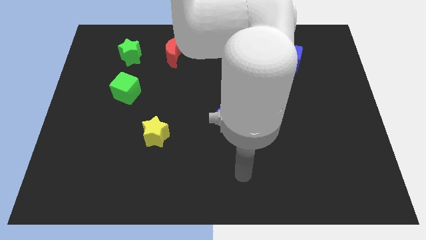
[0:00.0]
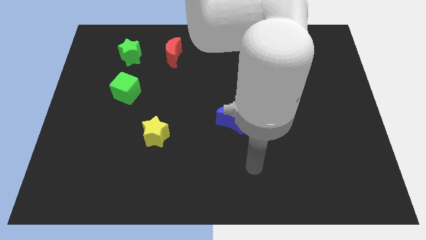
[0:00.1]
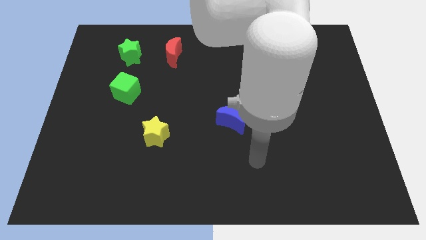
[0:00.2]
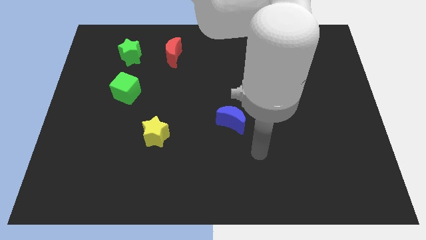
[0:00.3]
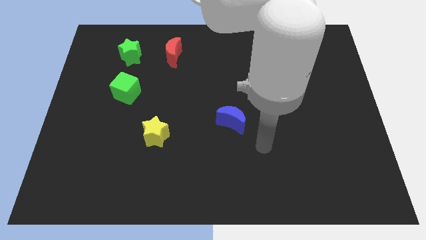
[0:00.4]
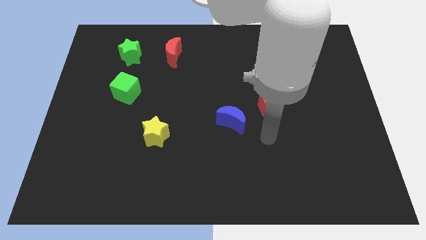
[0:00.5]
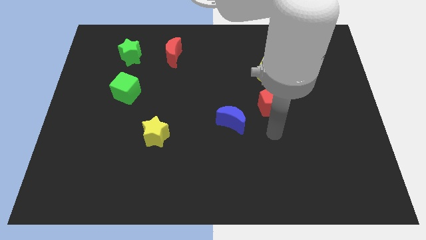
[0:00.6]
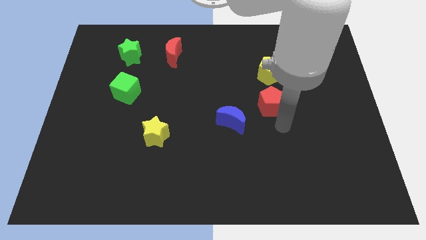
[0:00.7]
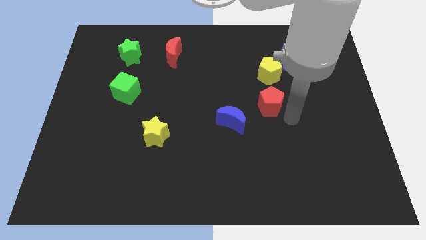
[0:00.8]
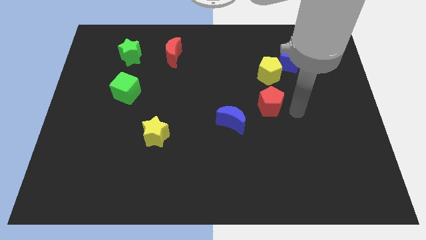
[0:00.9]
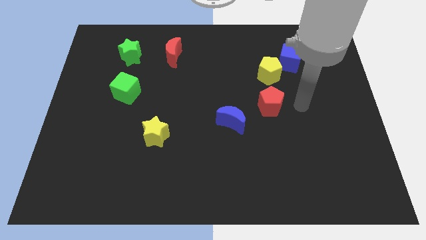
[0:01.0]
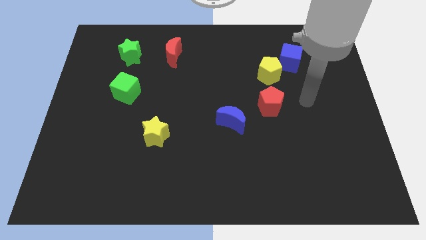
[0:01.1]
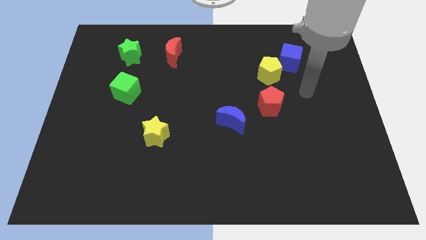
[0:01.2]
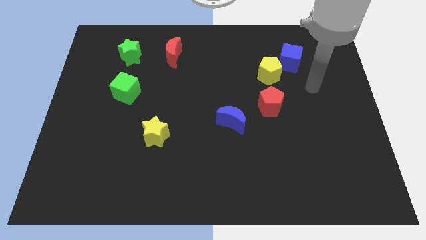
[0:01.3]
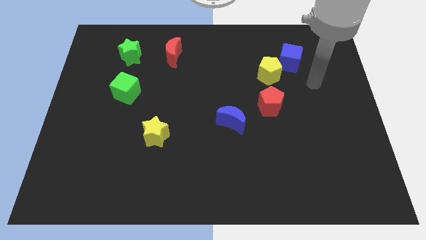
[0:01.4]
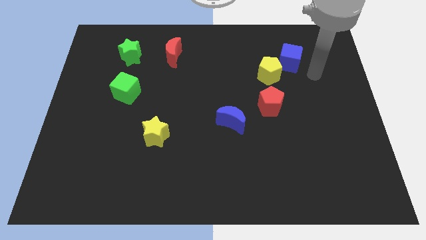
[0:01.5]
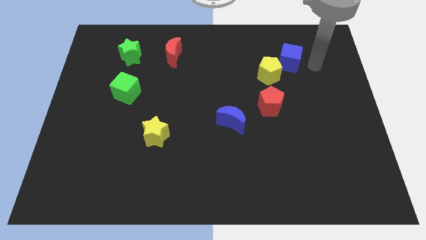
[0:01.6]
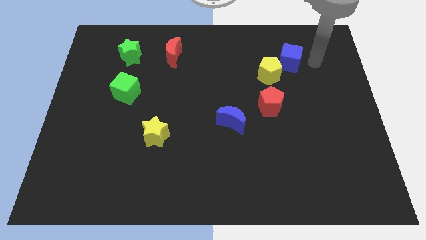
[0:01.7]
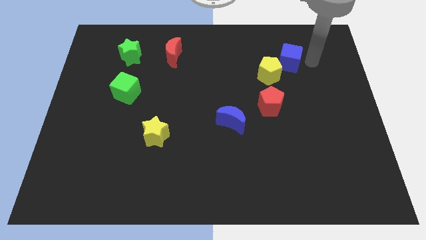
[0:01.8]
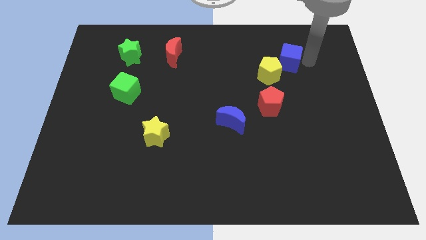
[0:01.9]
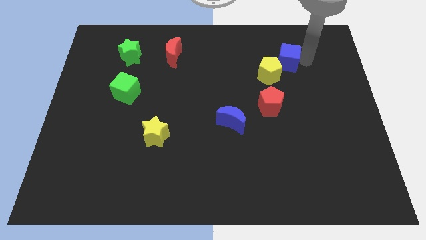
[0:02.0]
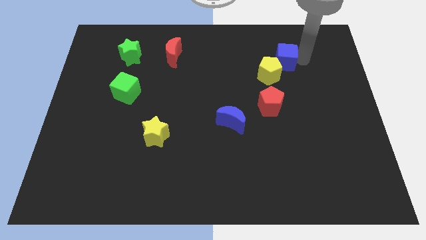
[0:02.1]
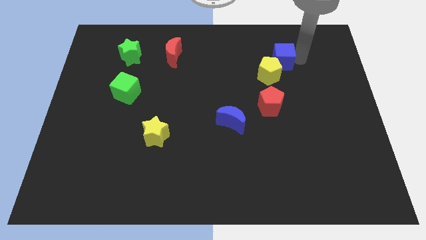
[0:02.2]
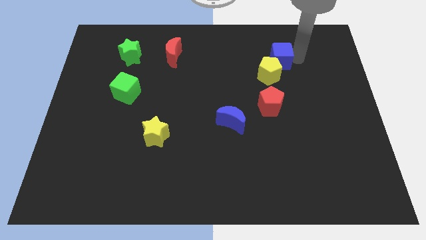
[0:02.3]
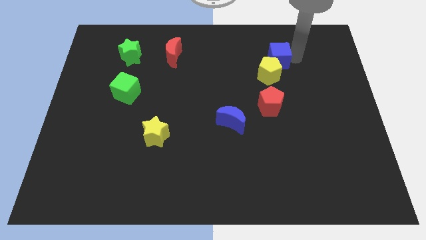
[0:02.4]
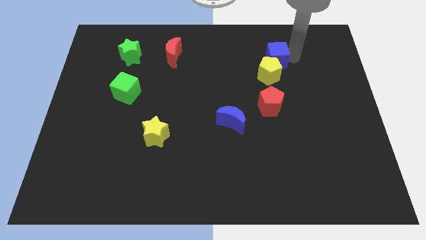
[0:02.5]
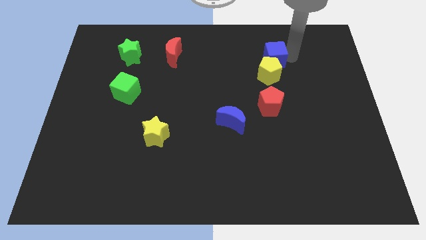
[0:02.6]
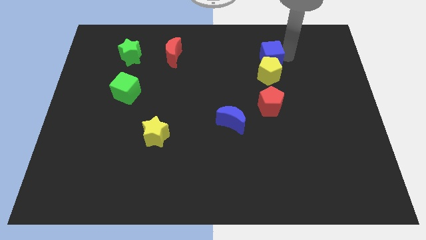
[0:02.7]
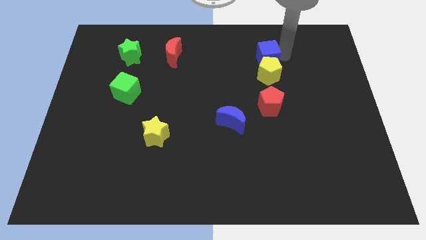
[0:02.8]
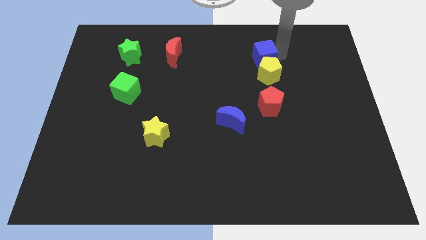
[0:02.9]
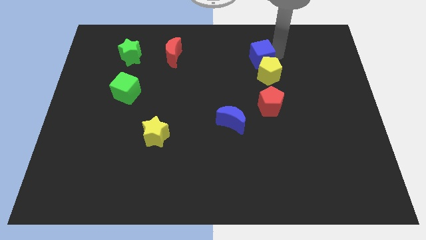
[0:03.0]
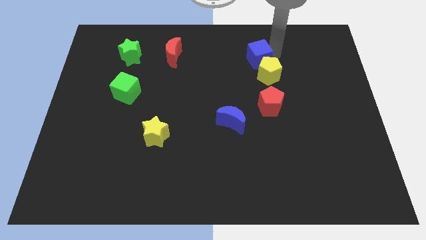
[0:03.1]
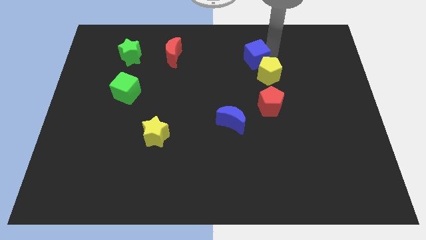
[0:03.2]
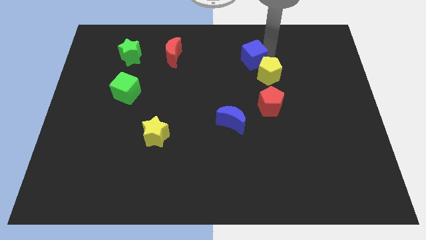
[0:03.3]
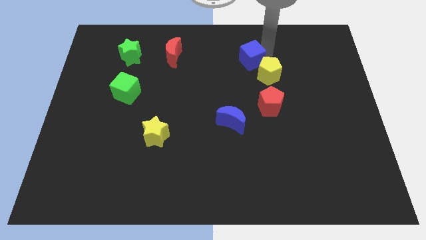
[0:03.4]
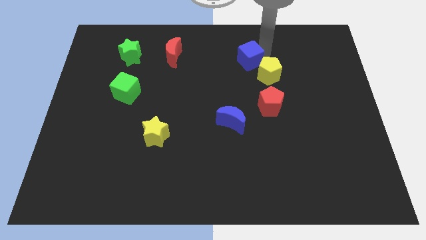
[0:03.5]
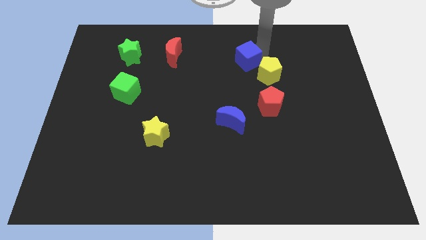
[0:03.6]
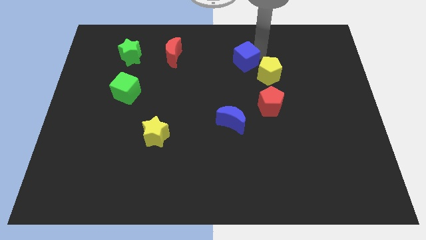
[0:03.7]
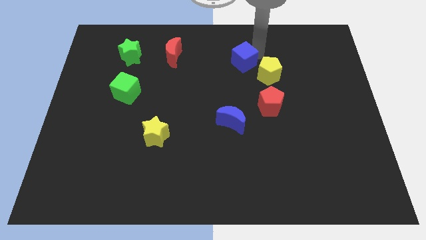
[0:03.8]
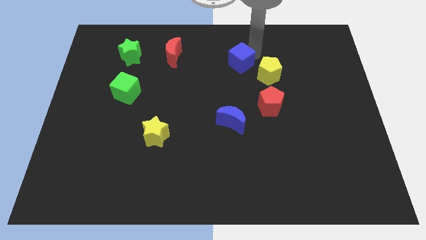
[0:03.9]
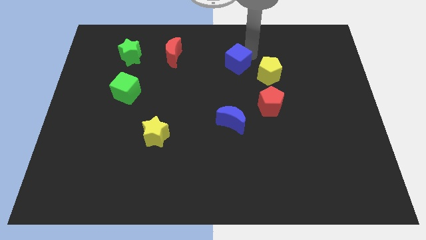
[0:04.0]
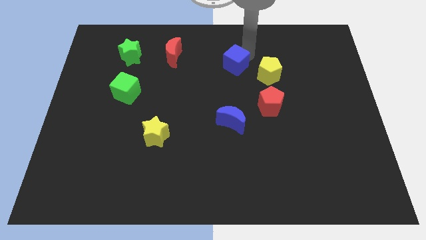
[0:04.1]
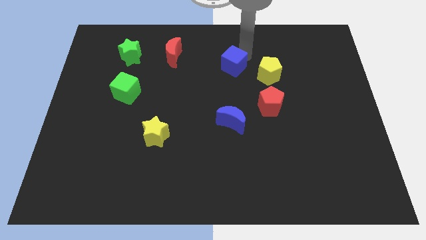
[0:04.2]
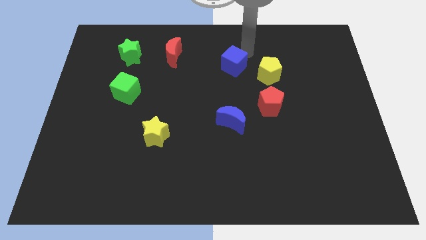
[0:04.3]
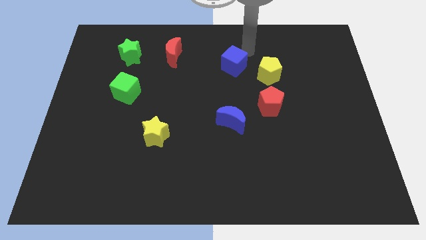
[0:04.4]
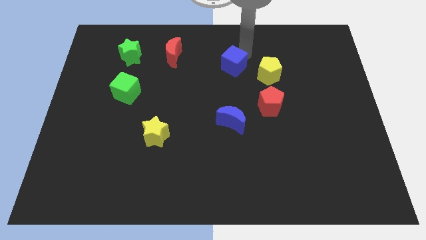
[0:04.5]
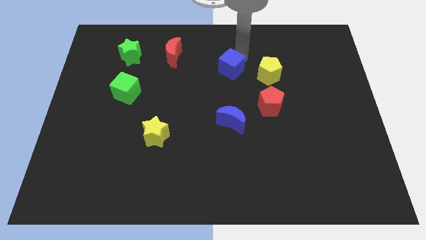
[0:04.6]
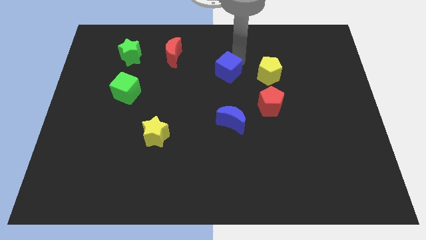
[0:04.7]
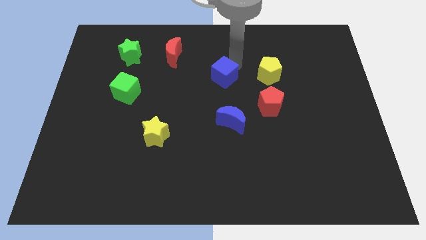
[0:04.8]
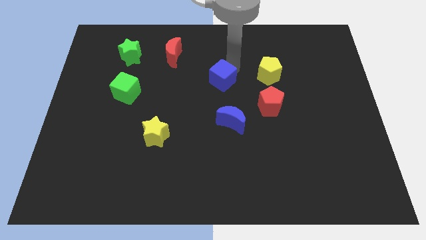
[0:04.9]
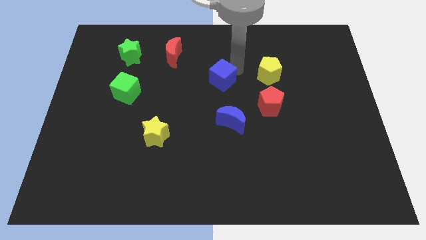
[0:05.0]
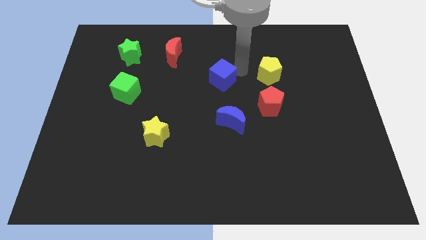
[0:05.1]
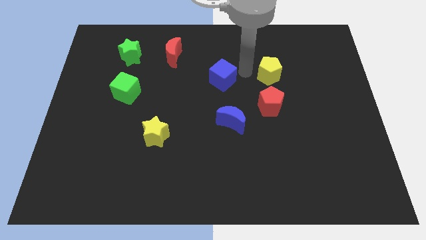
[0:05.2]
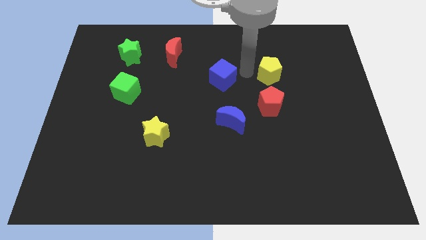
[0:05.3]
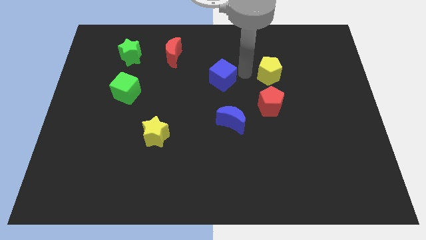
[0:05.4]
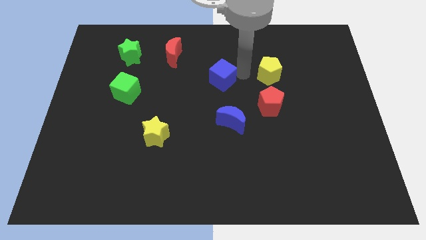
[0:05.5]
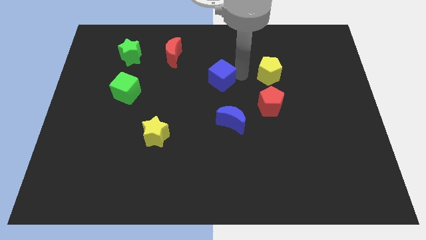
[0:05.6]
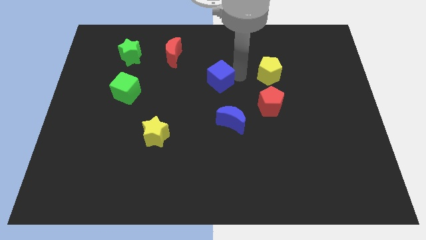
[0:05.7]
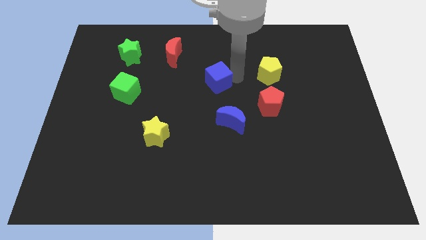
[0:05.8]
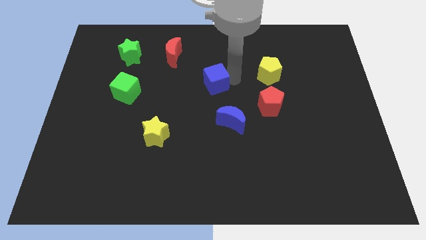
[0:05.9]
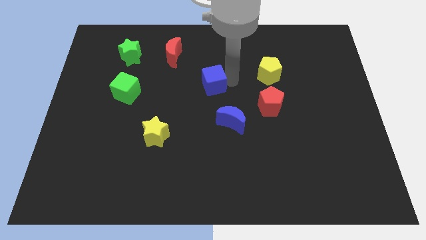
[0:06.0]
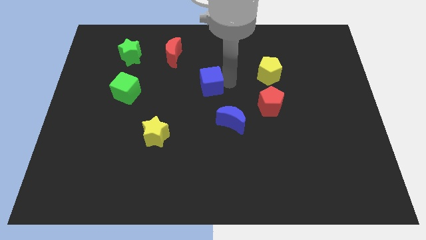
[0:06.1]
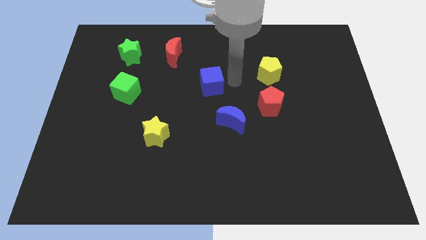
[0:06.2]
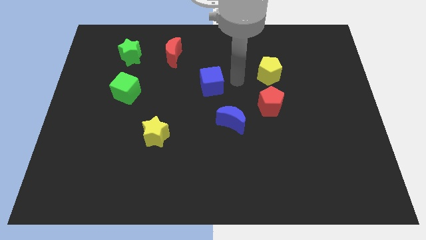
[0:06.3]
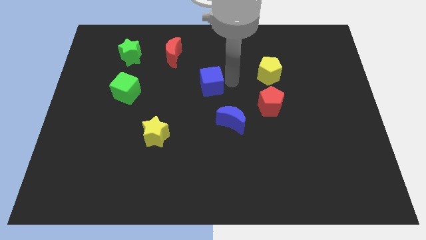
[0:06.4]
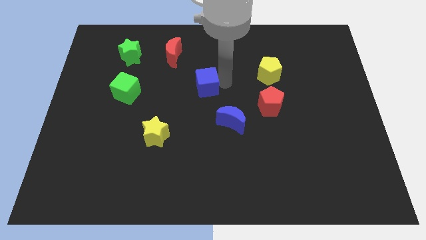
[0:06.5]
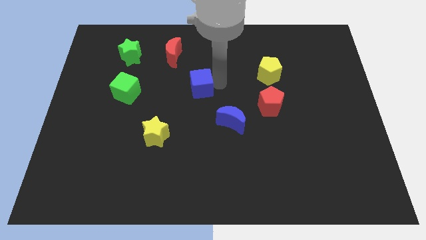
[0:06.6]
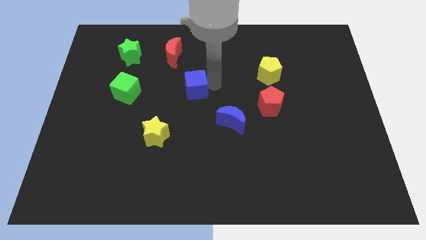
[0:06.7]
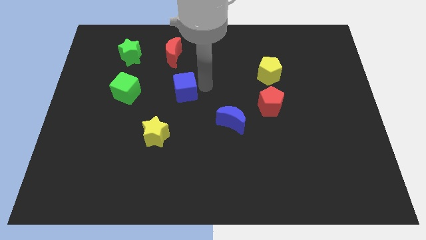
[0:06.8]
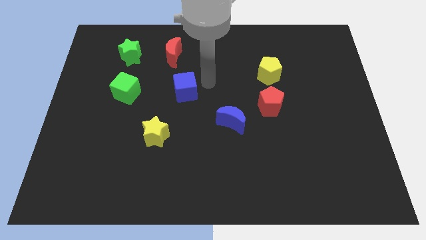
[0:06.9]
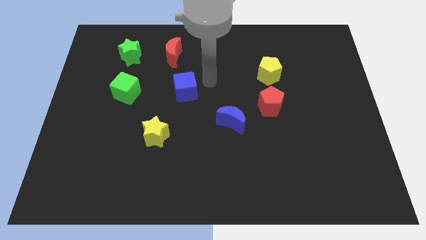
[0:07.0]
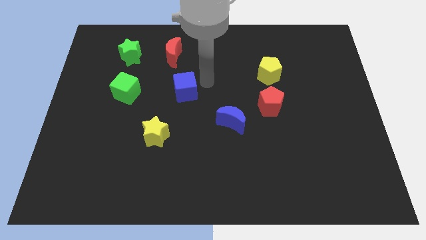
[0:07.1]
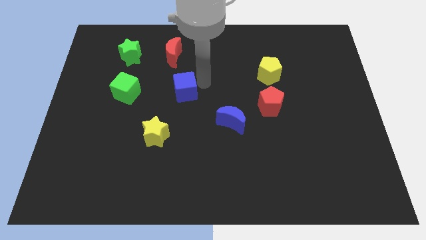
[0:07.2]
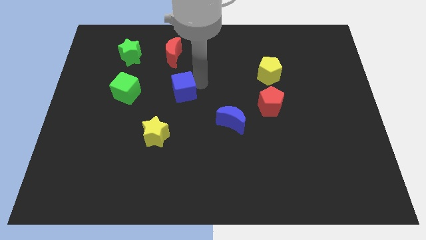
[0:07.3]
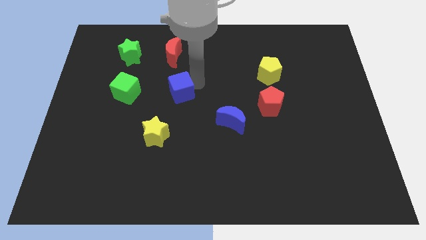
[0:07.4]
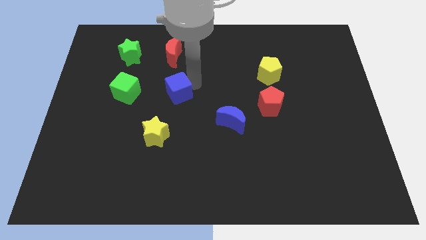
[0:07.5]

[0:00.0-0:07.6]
slide the blue cube to the top of the yellow star
